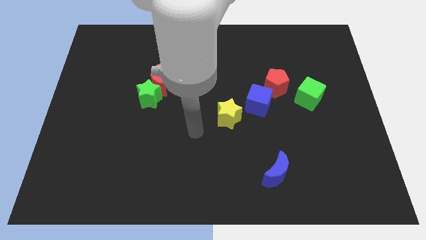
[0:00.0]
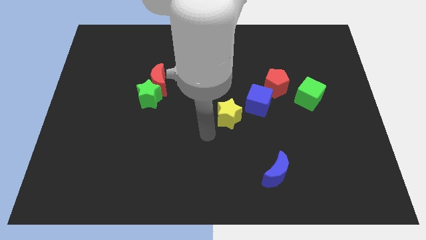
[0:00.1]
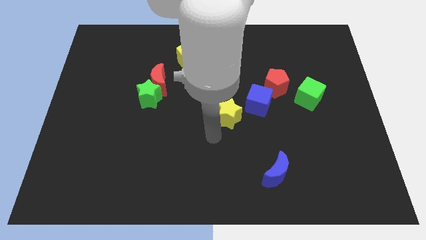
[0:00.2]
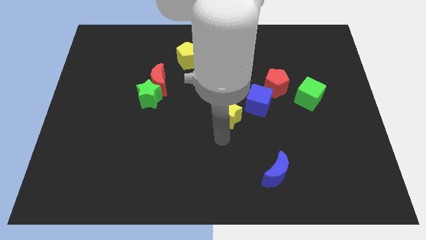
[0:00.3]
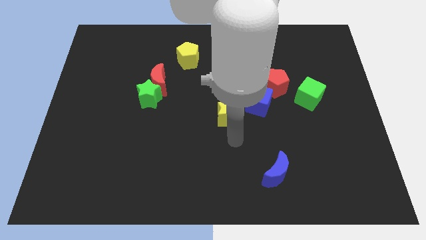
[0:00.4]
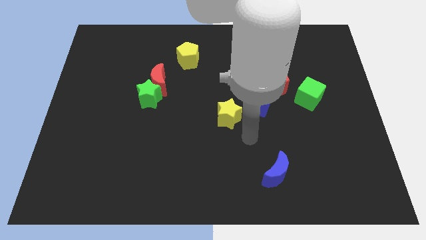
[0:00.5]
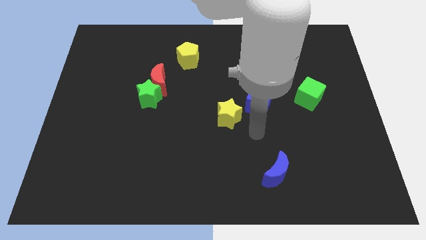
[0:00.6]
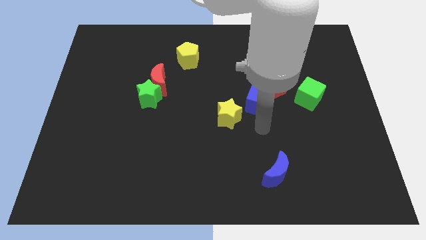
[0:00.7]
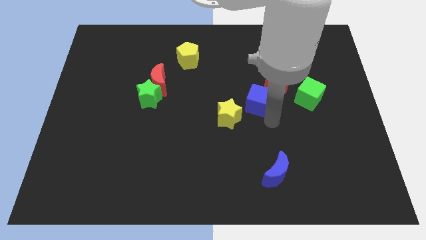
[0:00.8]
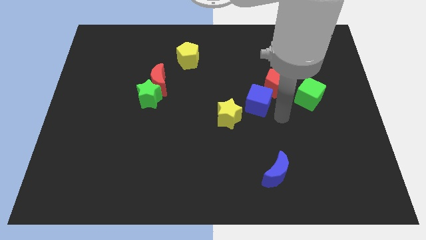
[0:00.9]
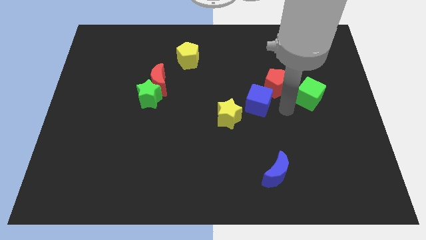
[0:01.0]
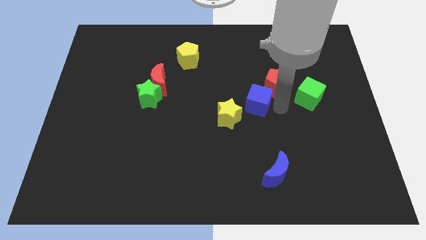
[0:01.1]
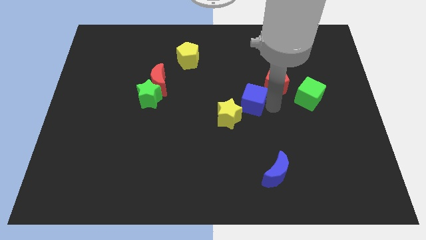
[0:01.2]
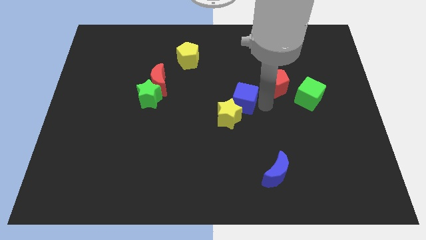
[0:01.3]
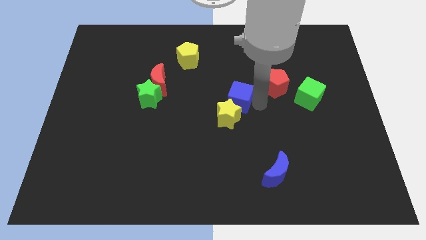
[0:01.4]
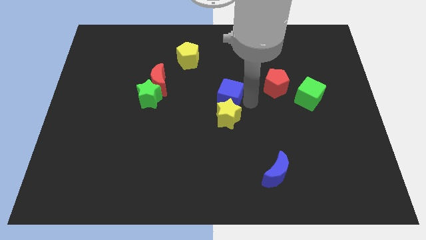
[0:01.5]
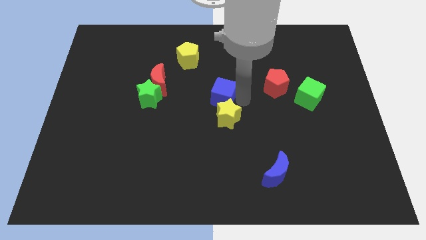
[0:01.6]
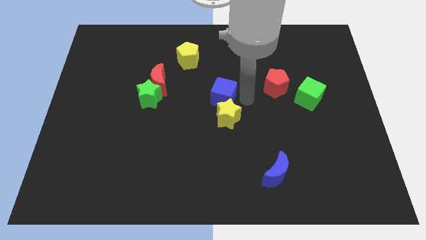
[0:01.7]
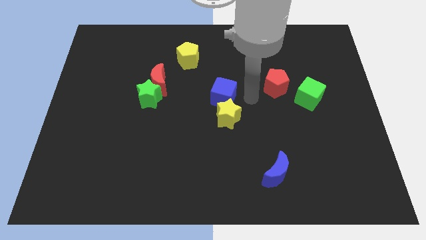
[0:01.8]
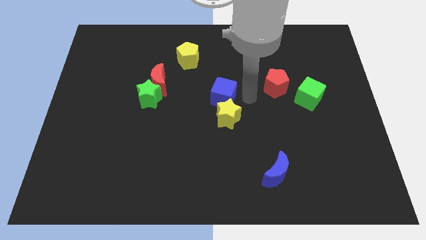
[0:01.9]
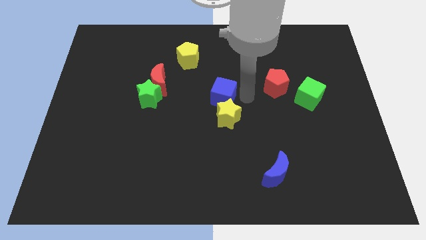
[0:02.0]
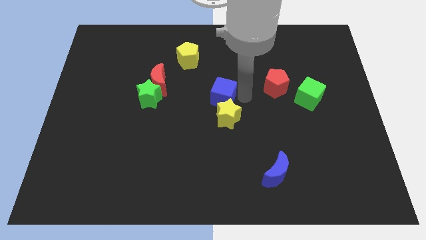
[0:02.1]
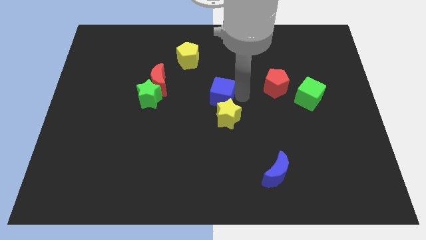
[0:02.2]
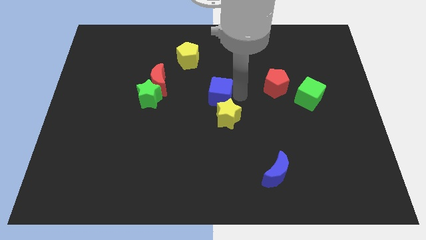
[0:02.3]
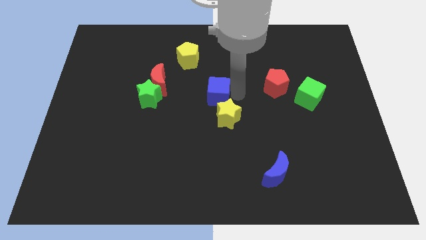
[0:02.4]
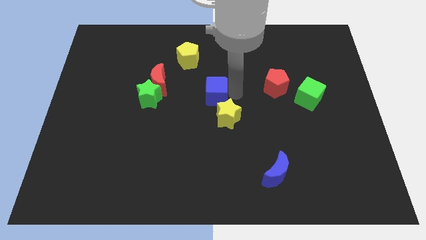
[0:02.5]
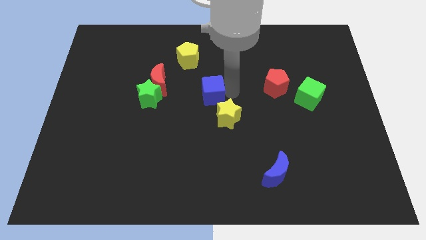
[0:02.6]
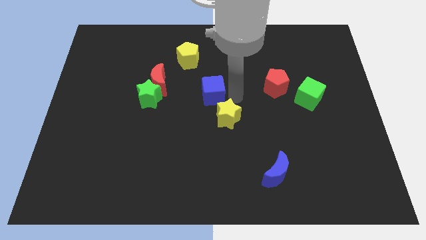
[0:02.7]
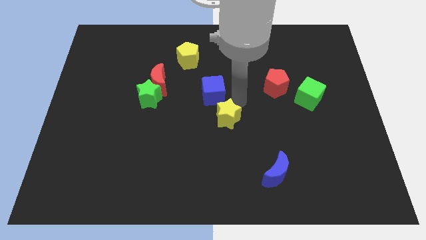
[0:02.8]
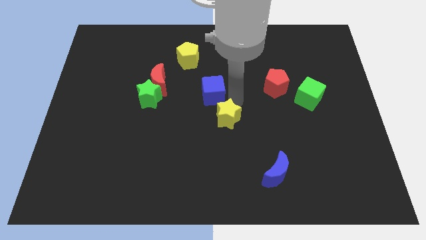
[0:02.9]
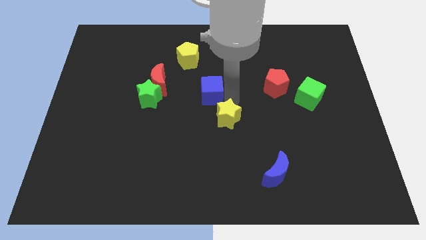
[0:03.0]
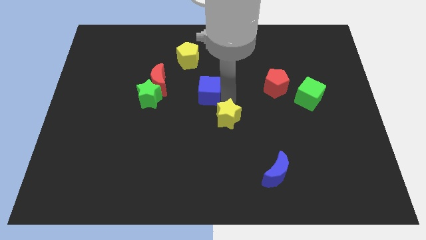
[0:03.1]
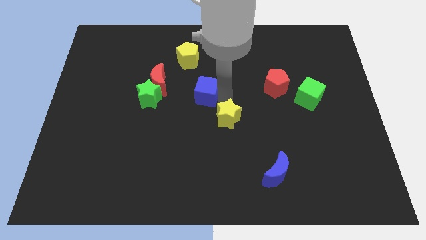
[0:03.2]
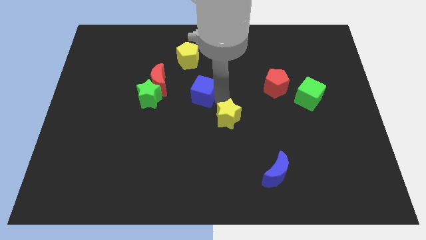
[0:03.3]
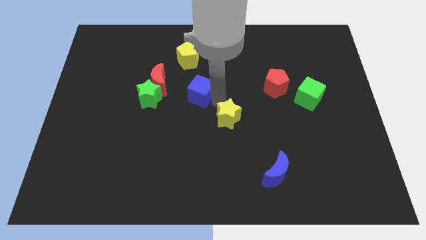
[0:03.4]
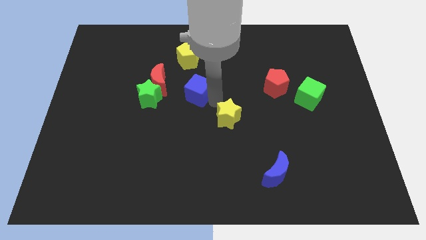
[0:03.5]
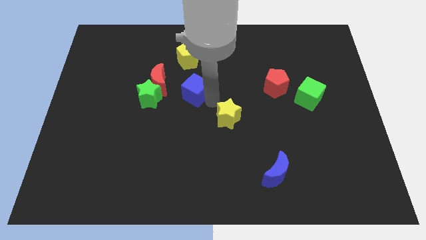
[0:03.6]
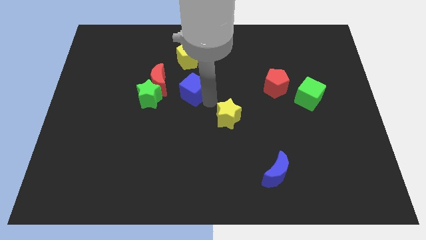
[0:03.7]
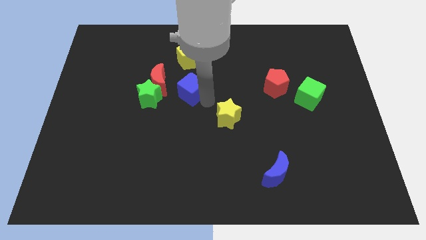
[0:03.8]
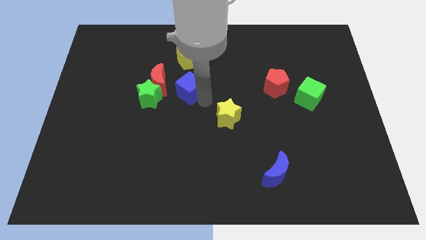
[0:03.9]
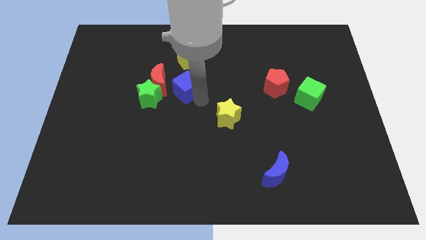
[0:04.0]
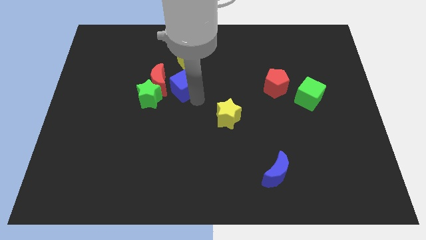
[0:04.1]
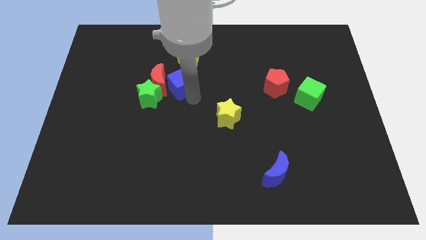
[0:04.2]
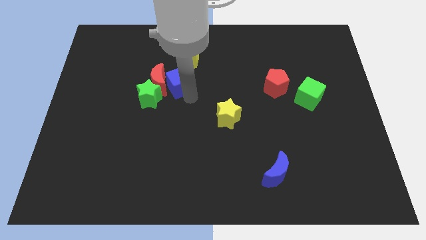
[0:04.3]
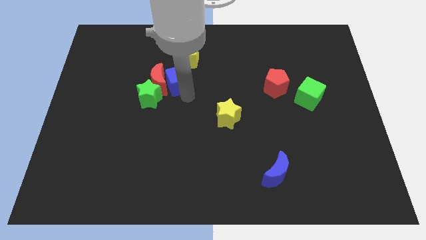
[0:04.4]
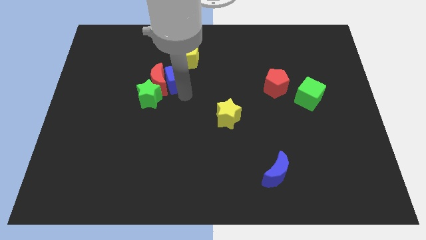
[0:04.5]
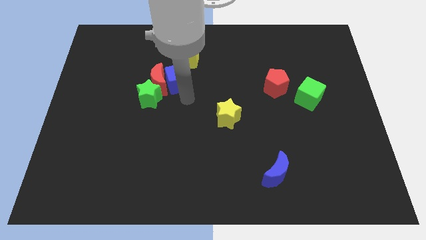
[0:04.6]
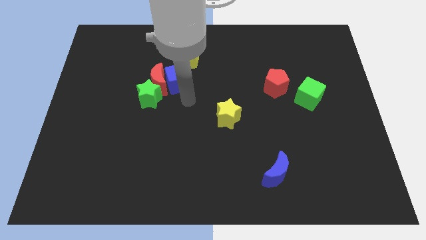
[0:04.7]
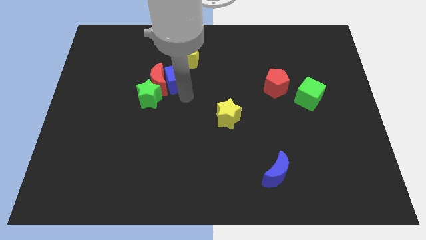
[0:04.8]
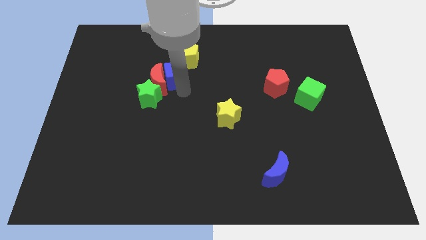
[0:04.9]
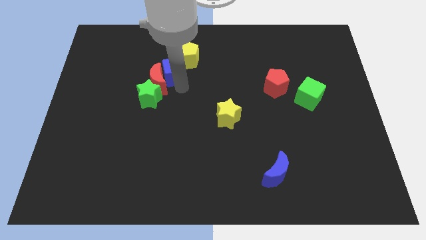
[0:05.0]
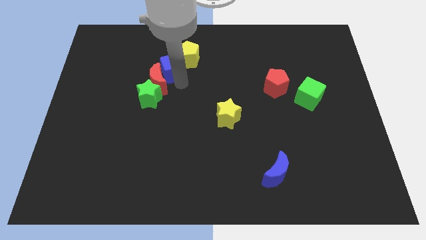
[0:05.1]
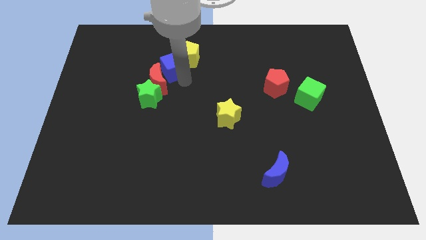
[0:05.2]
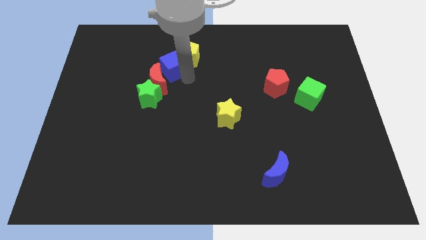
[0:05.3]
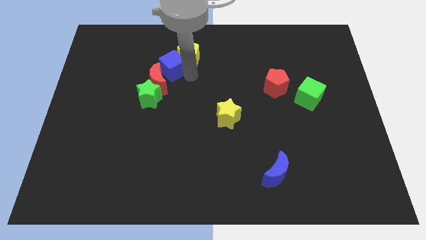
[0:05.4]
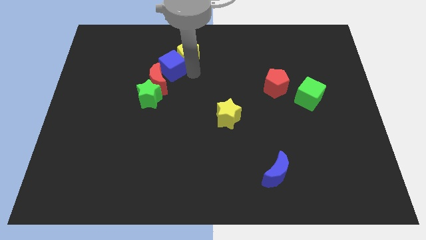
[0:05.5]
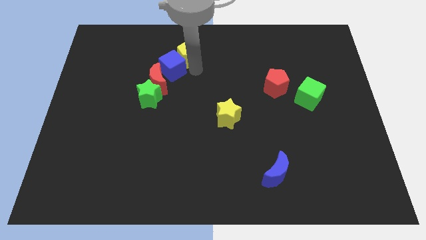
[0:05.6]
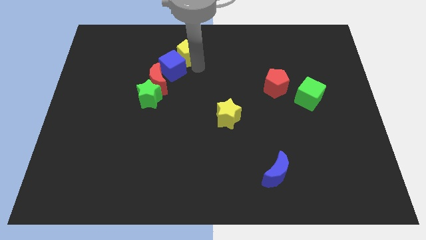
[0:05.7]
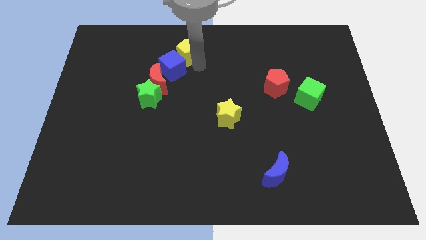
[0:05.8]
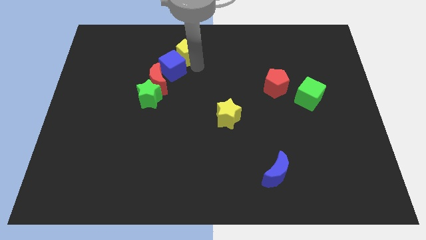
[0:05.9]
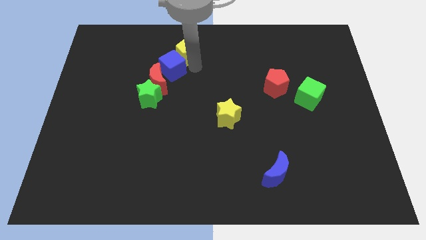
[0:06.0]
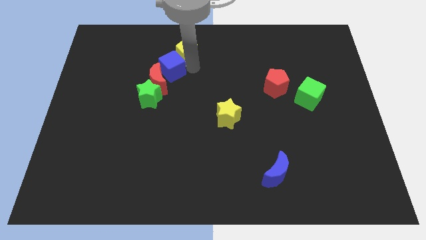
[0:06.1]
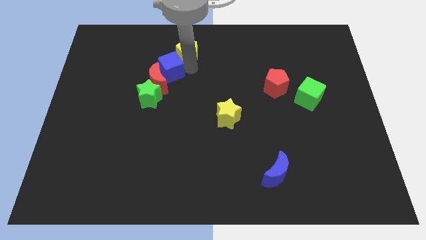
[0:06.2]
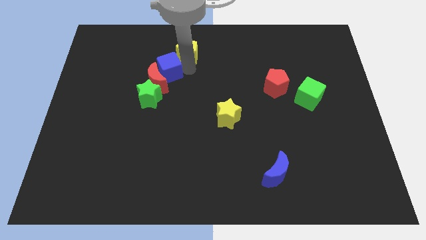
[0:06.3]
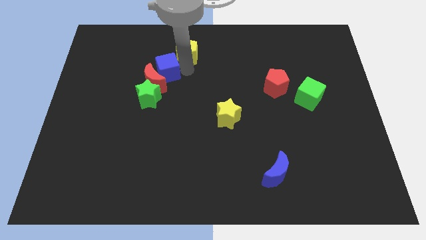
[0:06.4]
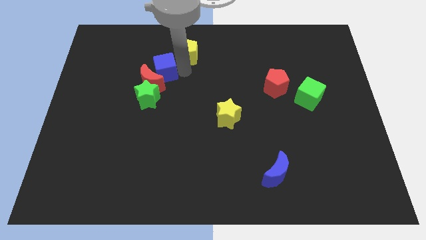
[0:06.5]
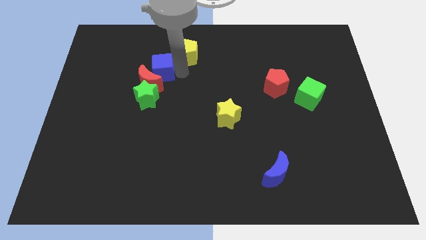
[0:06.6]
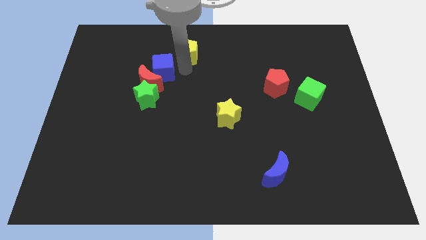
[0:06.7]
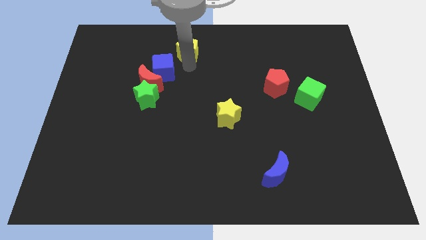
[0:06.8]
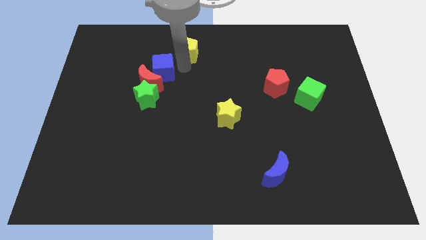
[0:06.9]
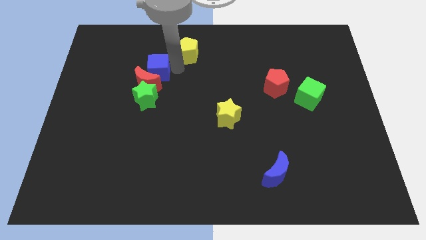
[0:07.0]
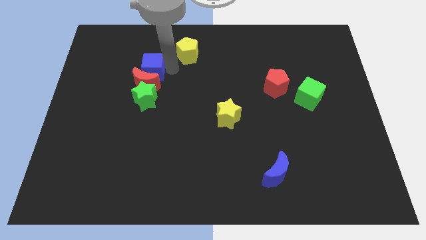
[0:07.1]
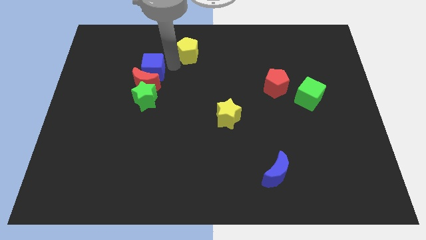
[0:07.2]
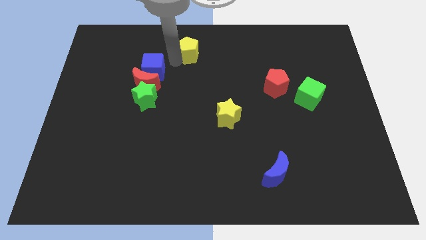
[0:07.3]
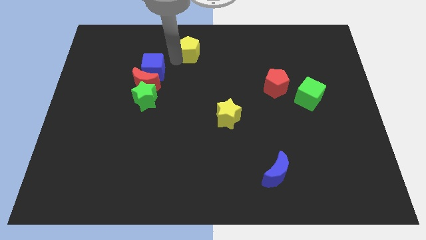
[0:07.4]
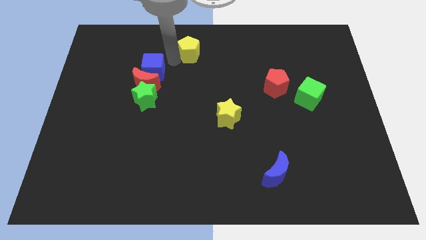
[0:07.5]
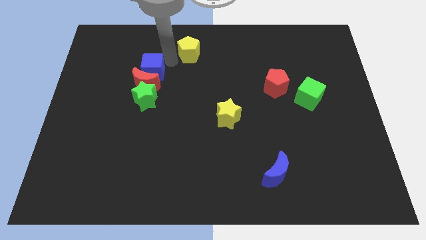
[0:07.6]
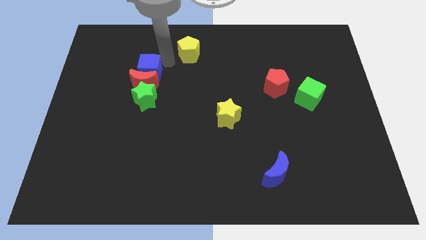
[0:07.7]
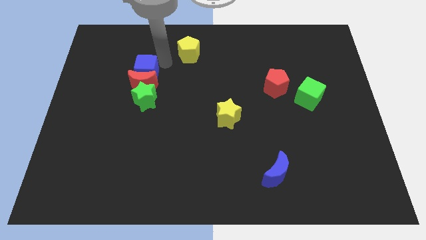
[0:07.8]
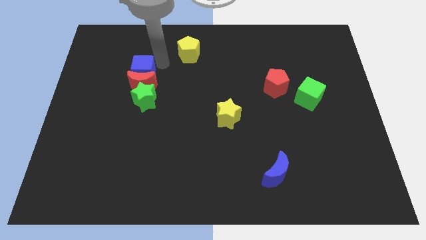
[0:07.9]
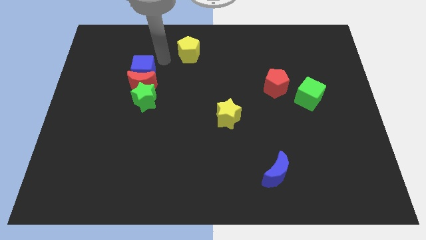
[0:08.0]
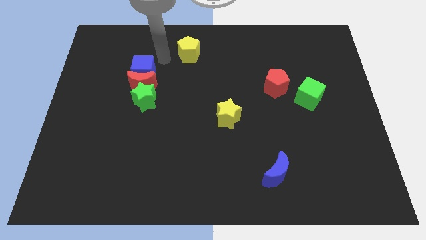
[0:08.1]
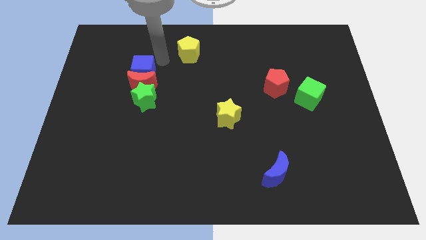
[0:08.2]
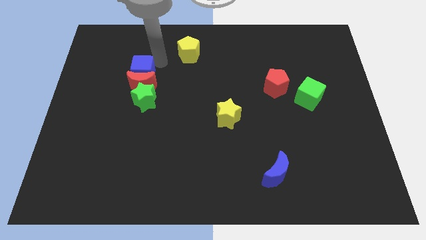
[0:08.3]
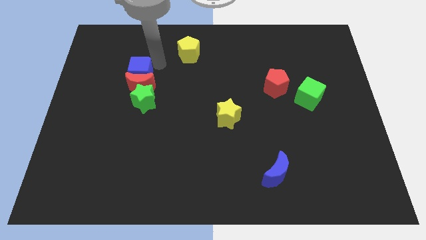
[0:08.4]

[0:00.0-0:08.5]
move the blue cube to the top left side of the green star
